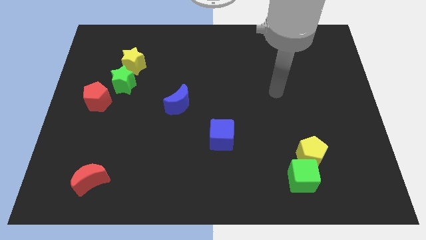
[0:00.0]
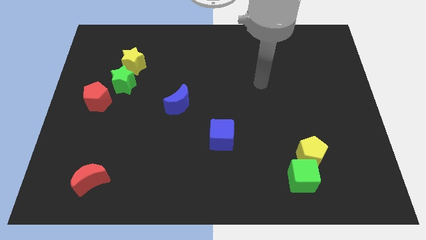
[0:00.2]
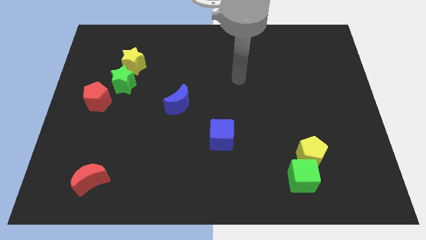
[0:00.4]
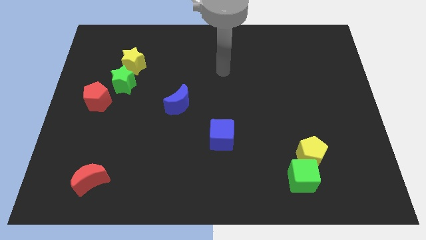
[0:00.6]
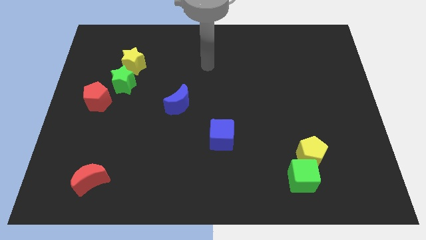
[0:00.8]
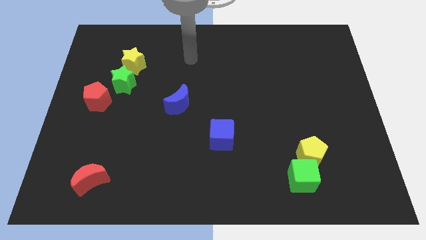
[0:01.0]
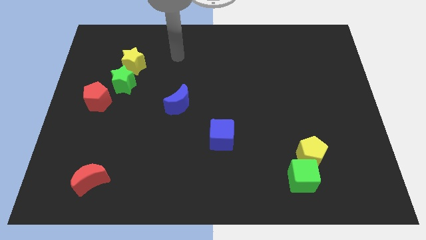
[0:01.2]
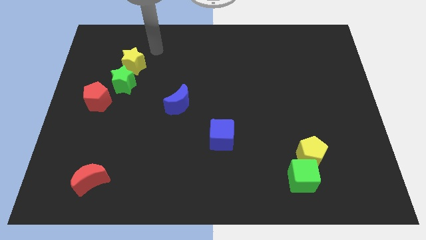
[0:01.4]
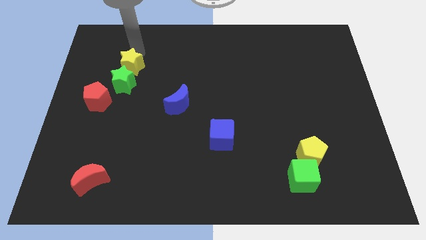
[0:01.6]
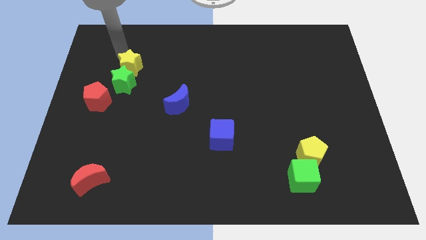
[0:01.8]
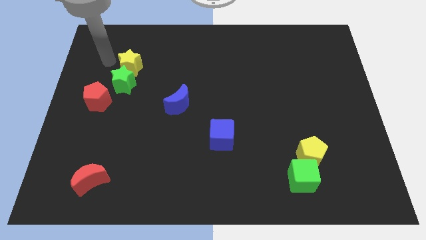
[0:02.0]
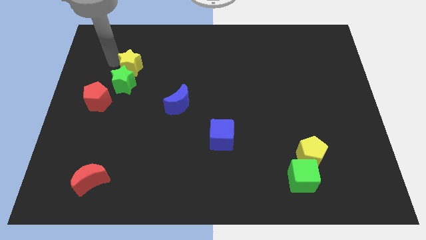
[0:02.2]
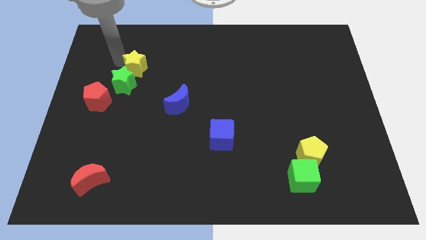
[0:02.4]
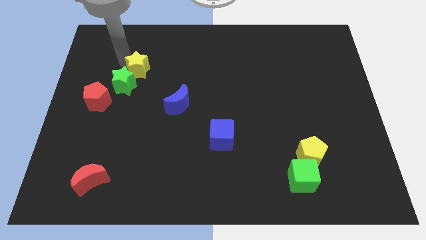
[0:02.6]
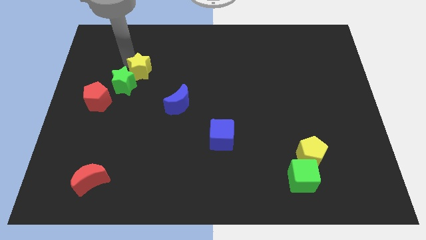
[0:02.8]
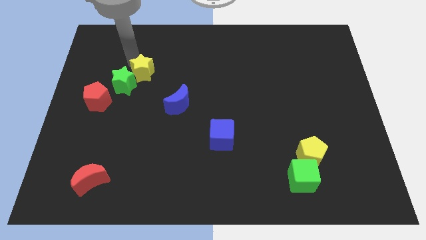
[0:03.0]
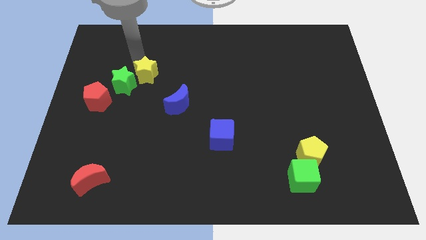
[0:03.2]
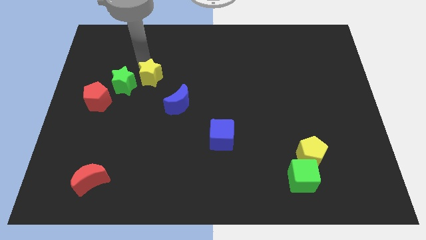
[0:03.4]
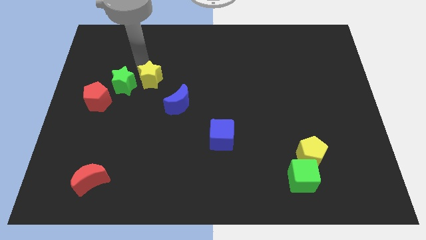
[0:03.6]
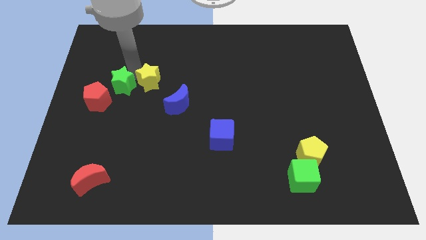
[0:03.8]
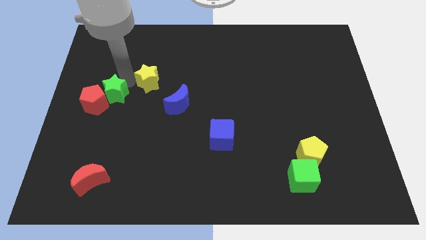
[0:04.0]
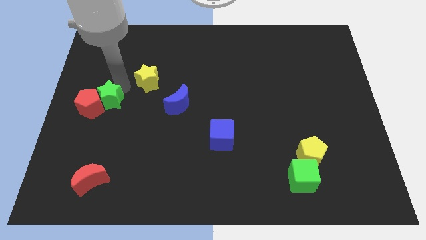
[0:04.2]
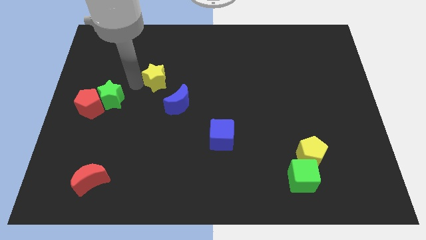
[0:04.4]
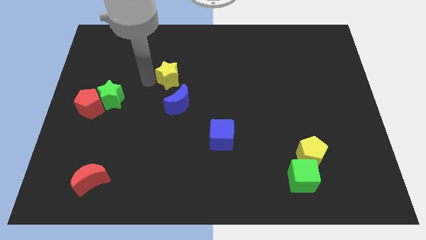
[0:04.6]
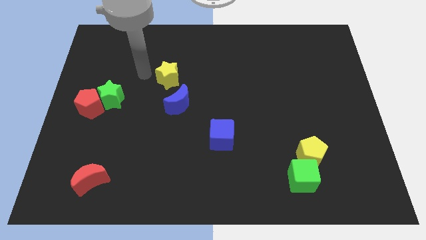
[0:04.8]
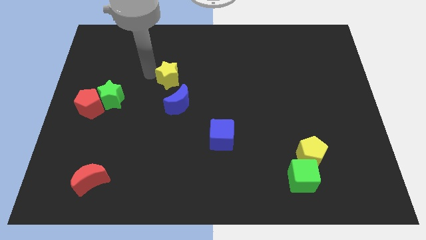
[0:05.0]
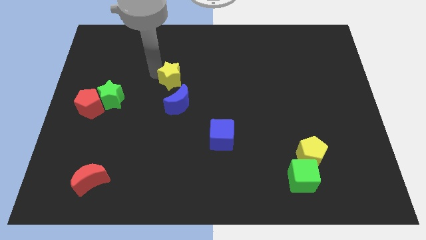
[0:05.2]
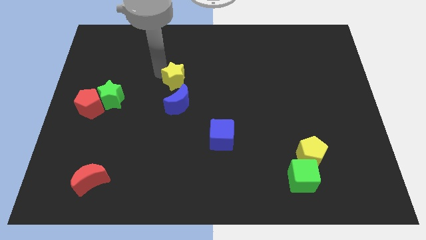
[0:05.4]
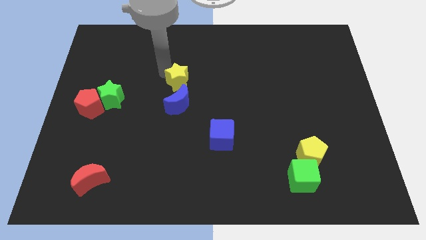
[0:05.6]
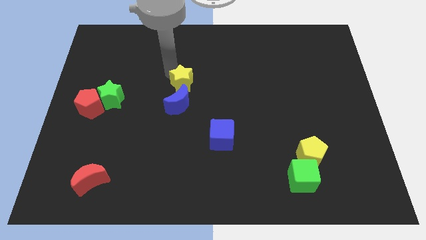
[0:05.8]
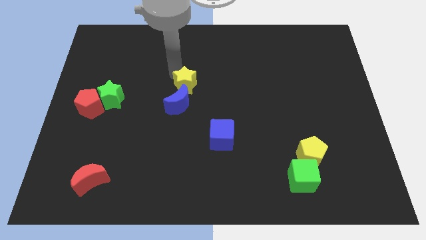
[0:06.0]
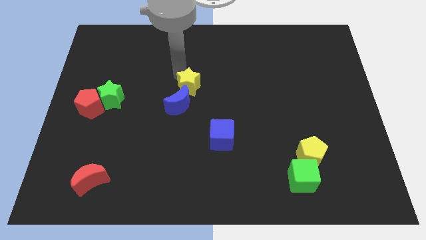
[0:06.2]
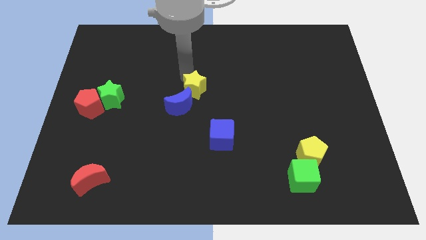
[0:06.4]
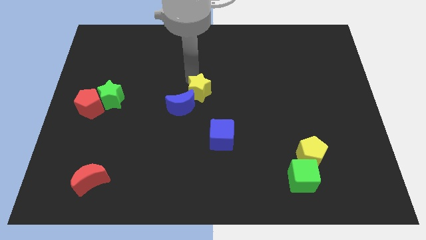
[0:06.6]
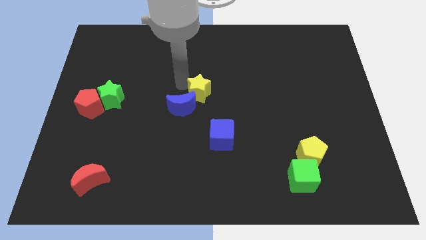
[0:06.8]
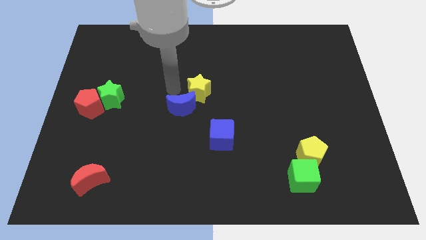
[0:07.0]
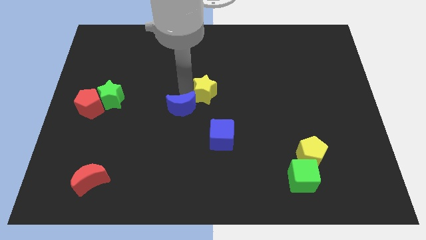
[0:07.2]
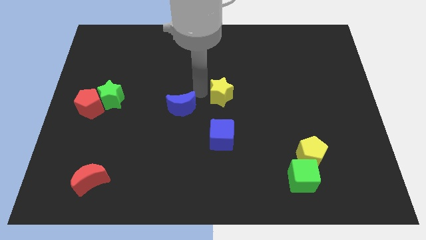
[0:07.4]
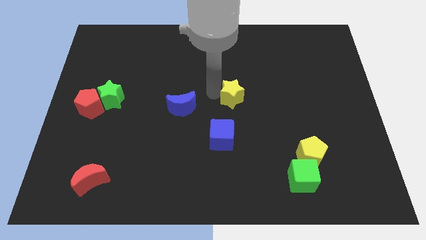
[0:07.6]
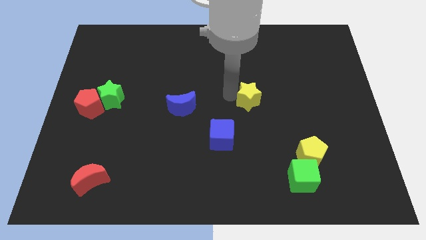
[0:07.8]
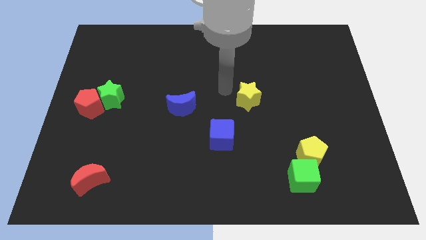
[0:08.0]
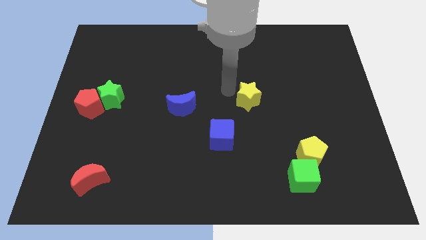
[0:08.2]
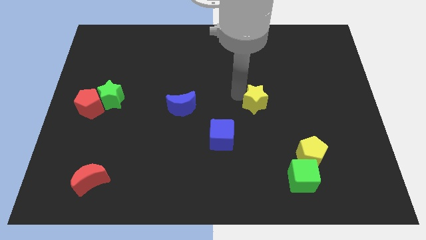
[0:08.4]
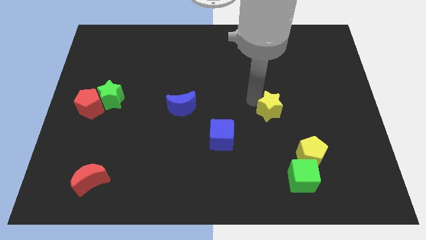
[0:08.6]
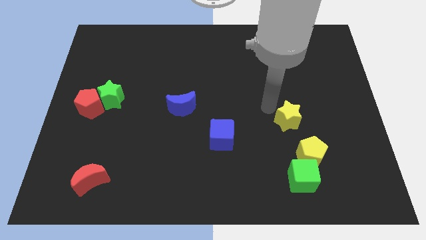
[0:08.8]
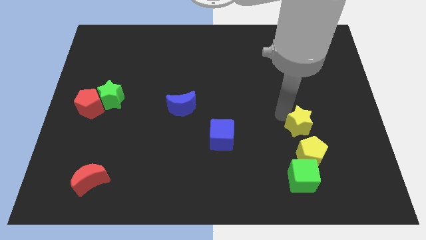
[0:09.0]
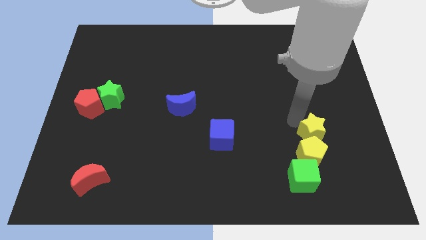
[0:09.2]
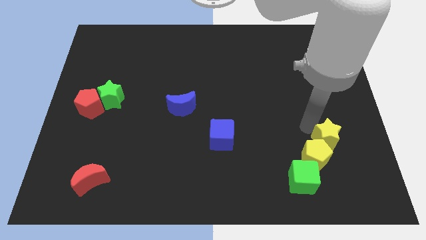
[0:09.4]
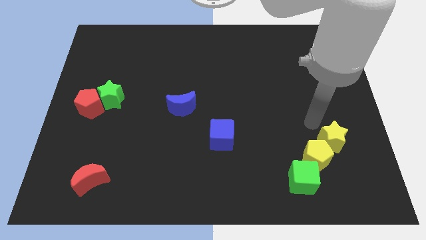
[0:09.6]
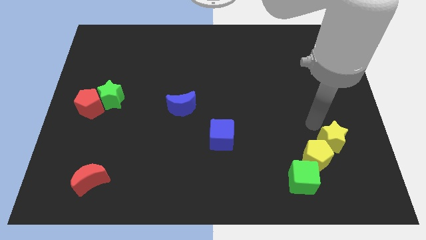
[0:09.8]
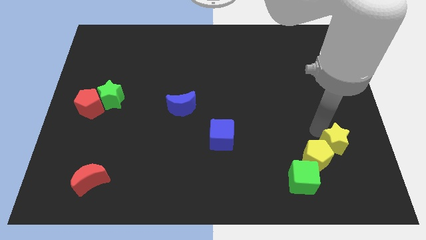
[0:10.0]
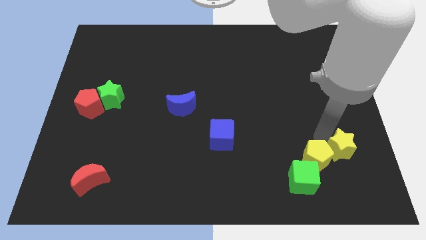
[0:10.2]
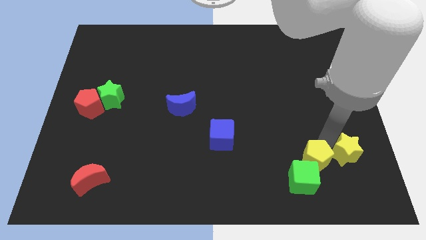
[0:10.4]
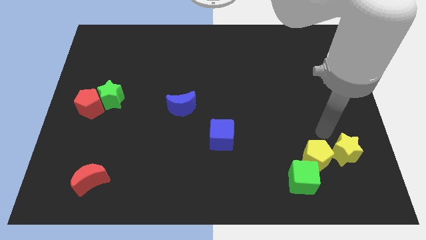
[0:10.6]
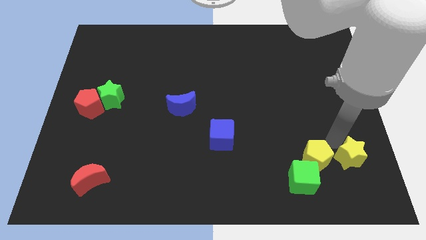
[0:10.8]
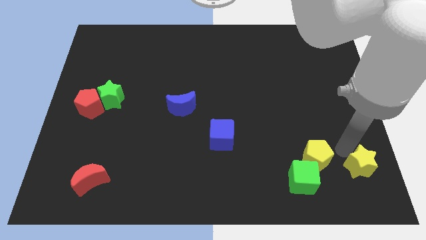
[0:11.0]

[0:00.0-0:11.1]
put the yellow star to the bottom right
